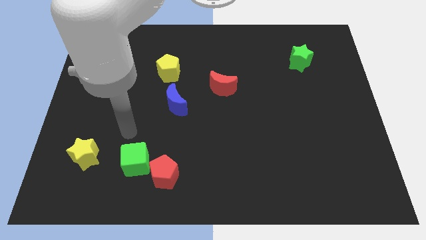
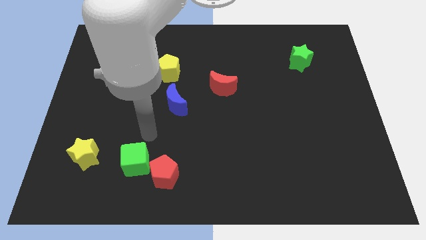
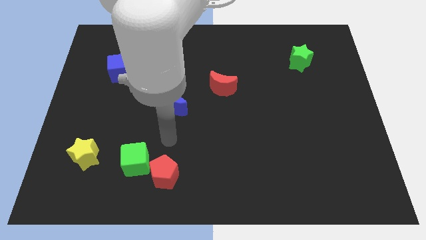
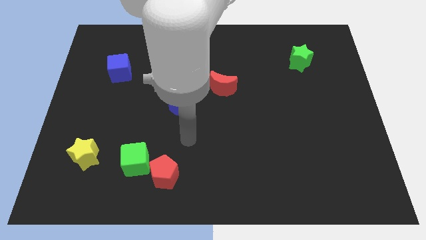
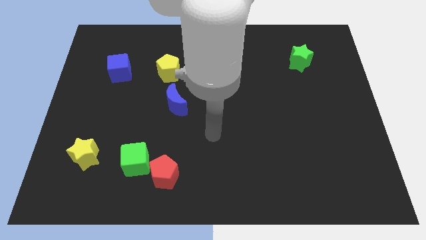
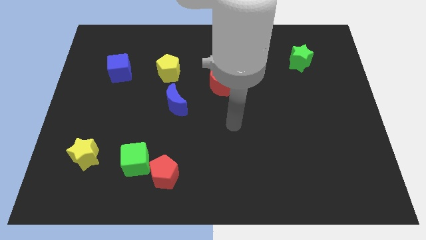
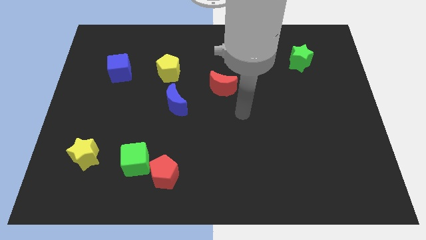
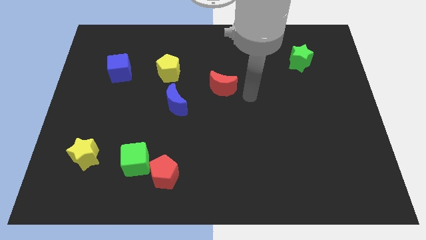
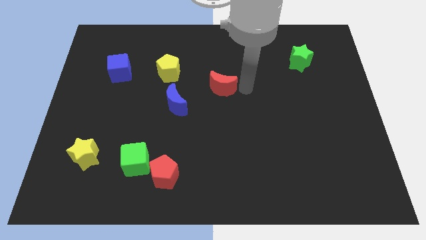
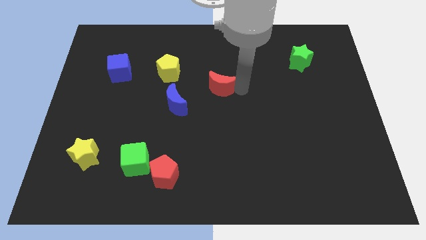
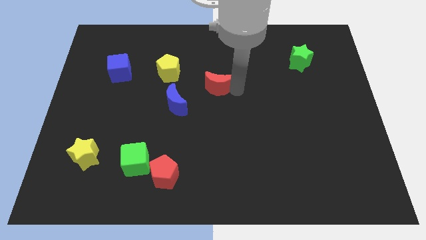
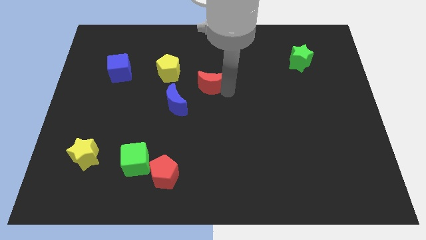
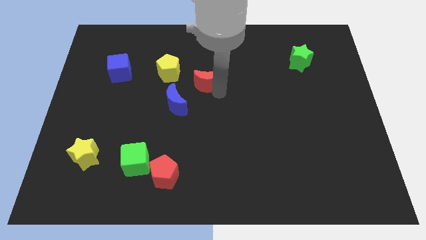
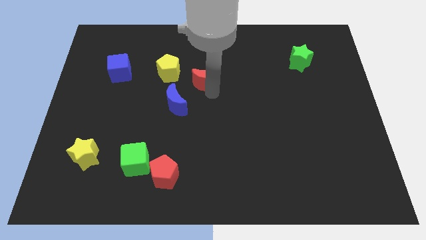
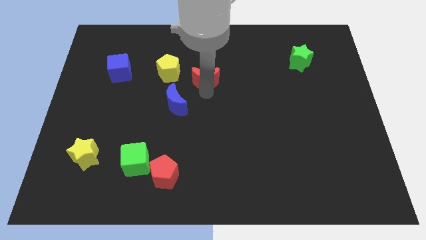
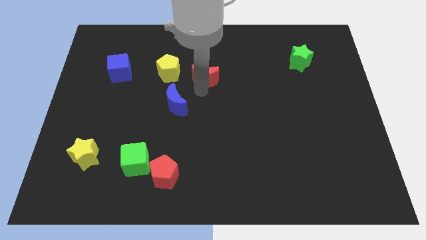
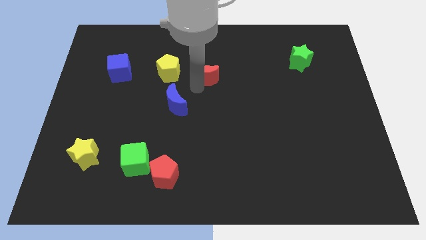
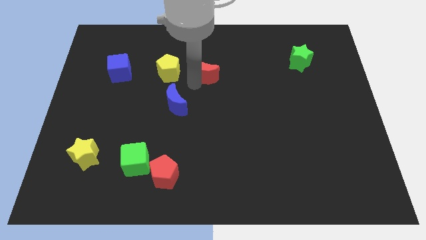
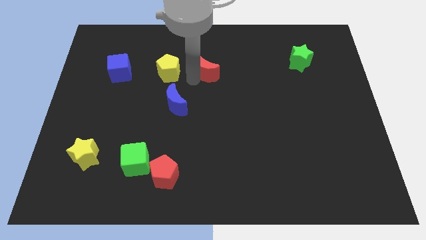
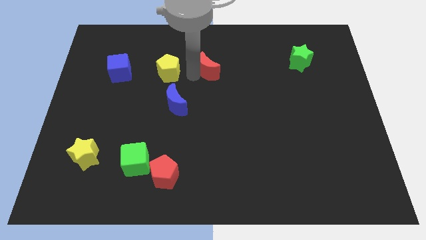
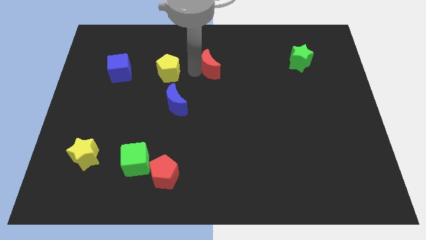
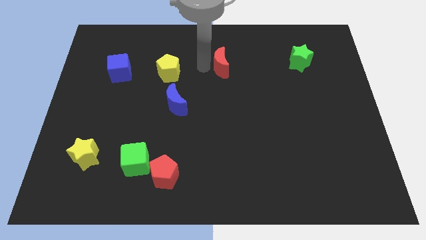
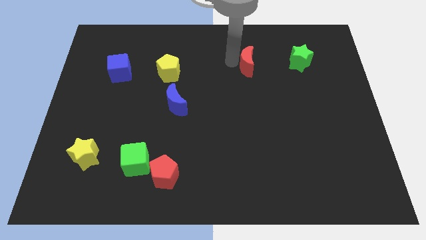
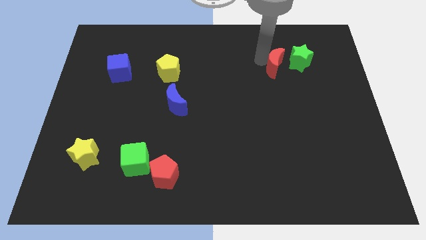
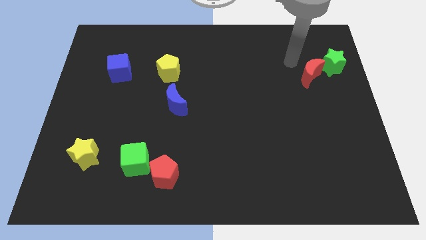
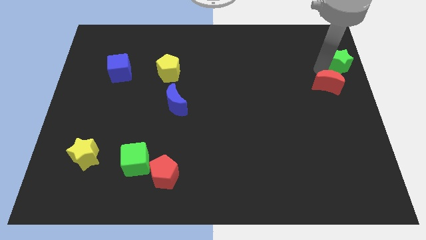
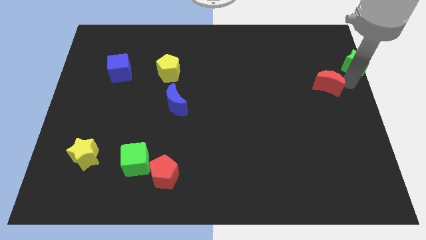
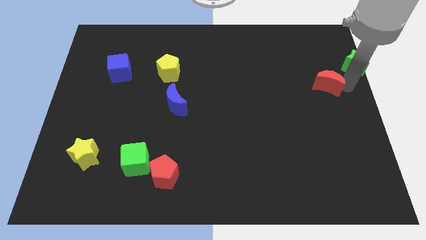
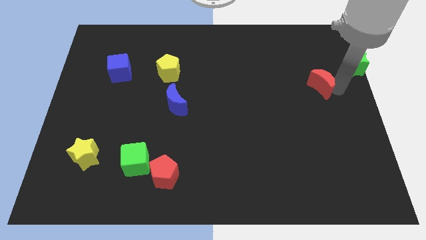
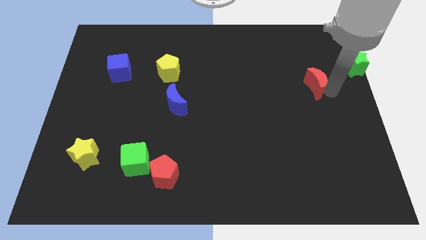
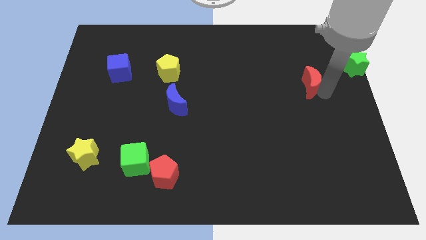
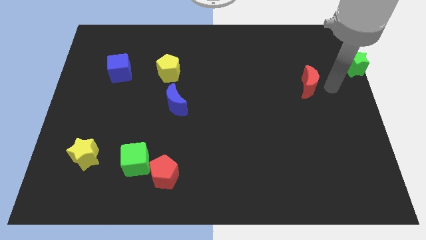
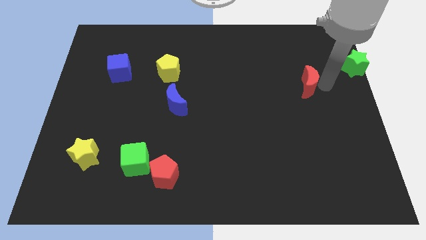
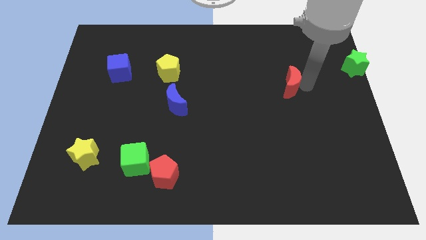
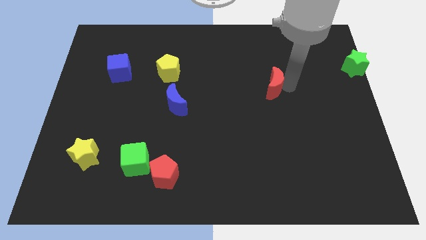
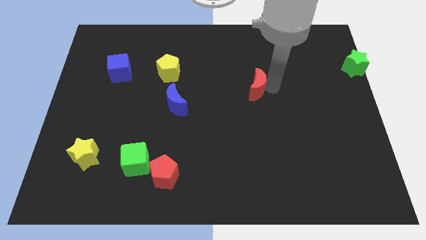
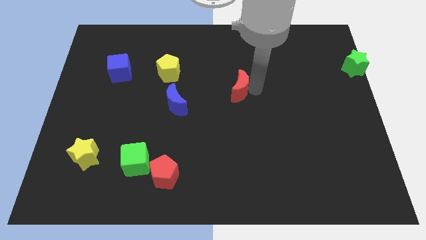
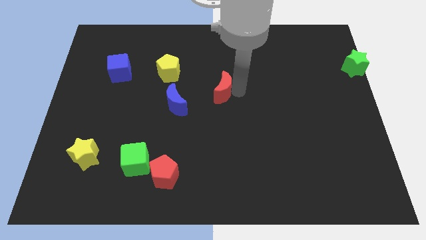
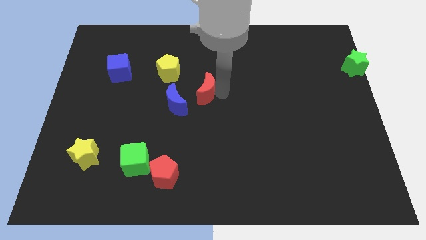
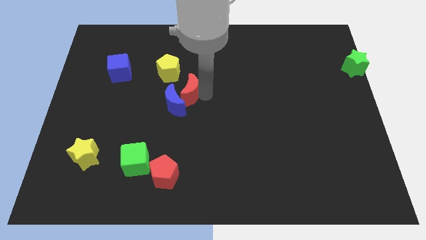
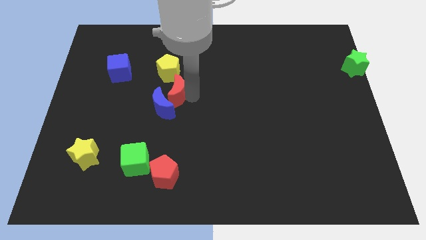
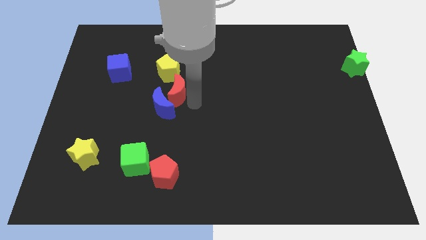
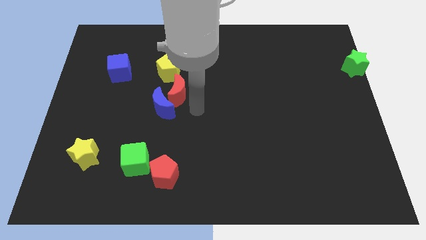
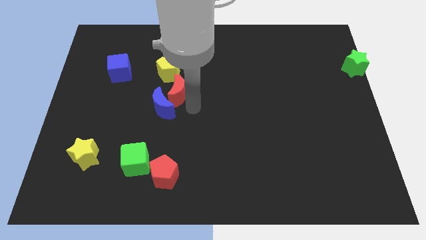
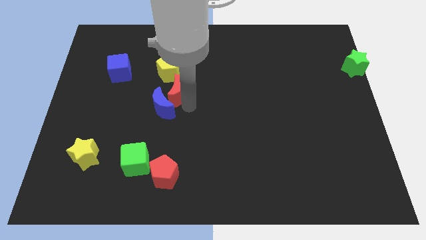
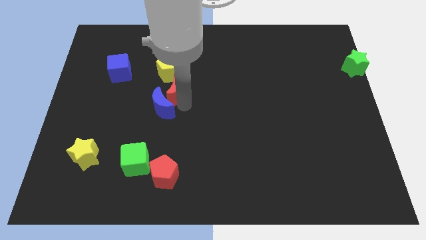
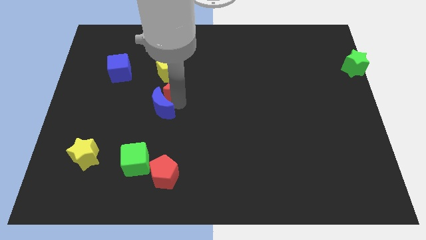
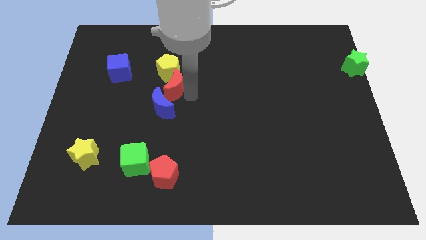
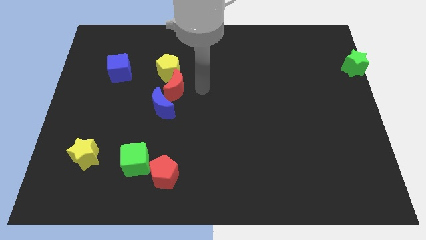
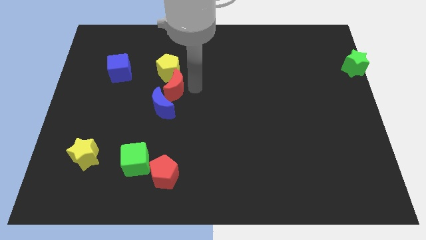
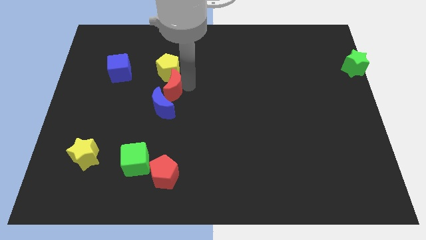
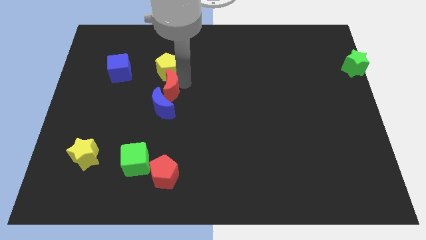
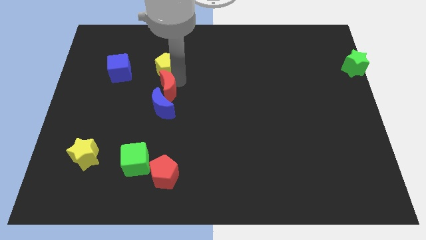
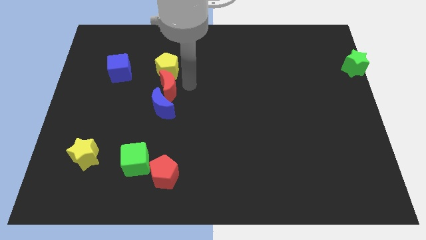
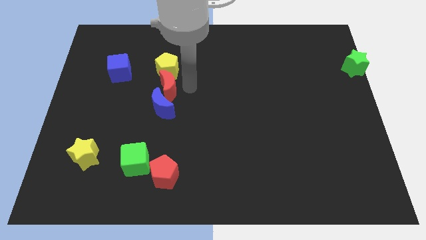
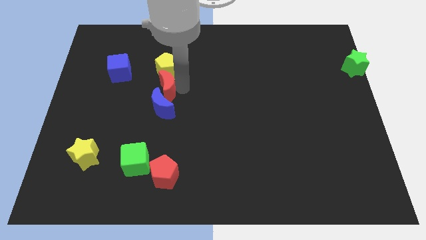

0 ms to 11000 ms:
move the red moon to the top left side of the blue moon

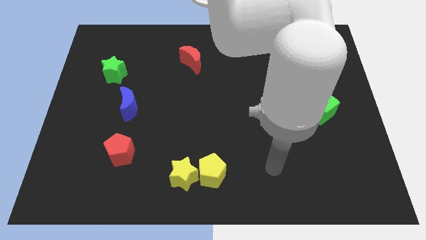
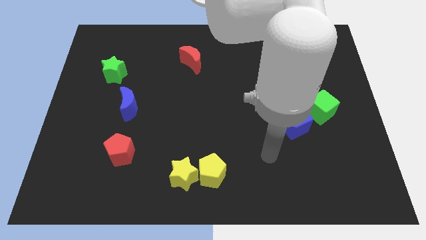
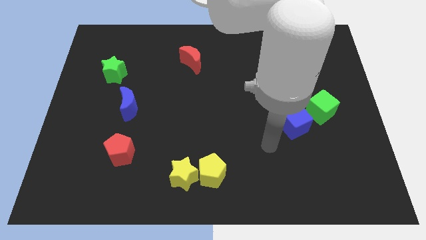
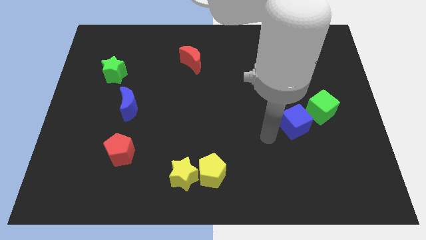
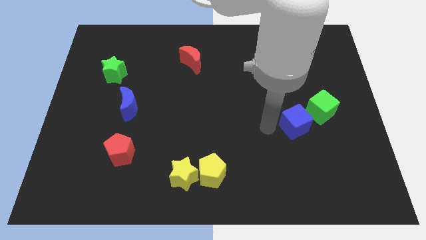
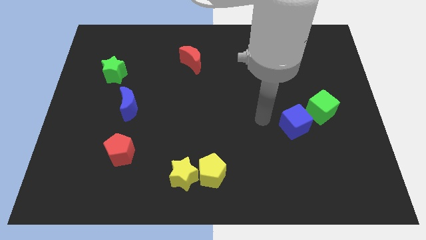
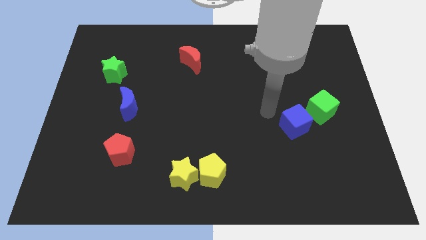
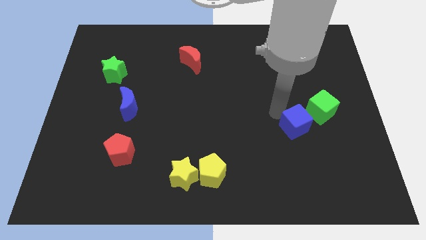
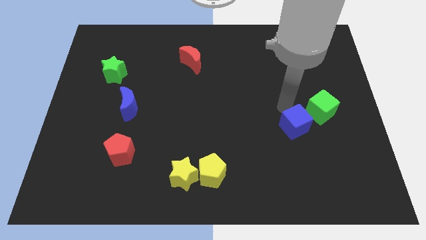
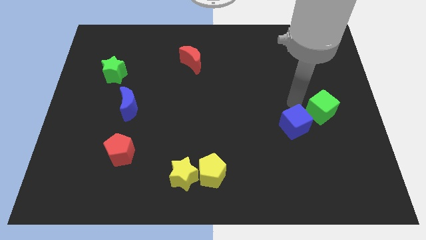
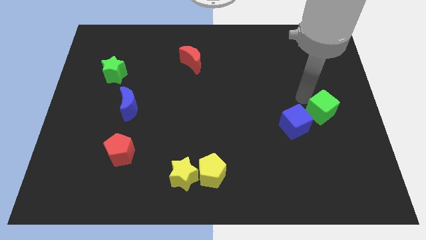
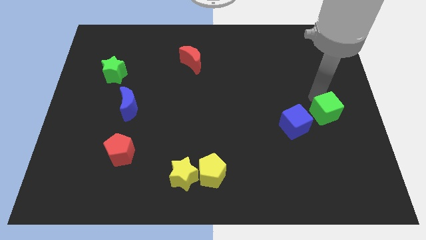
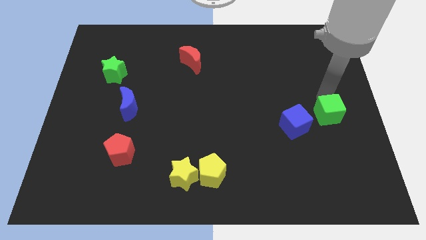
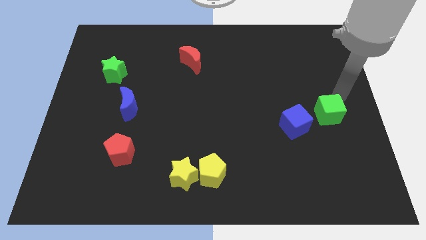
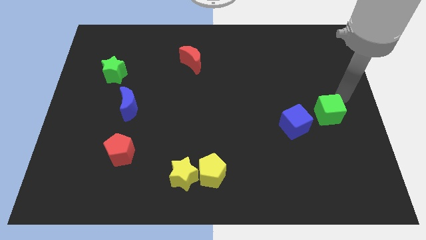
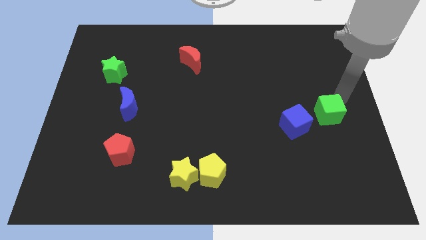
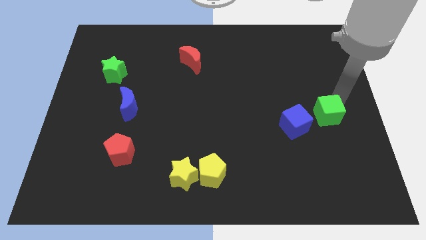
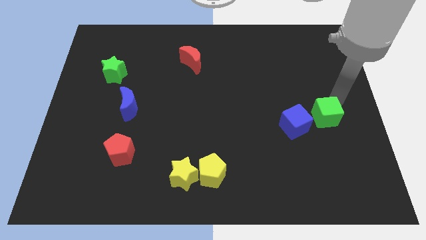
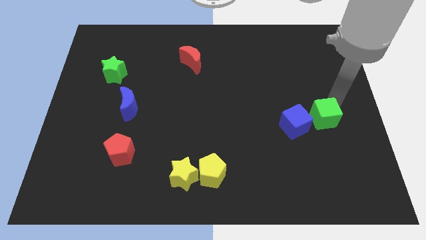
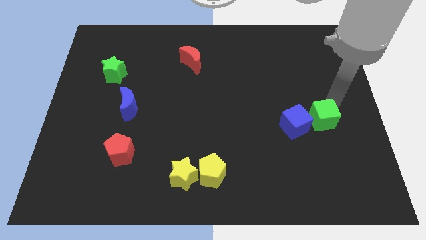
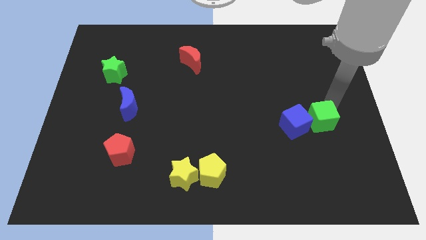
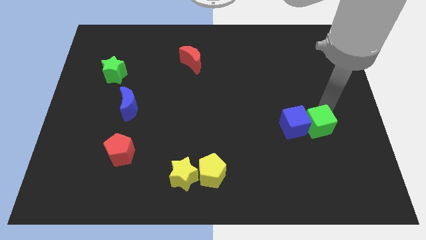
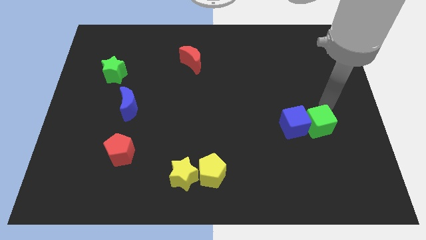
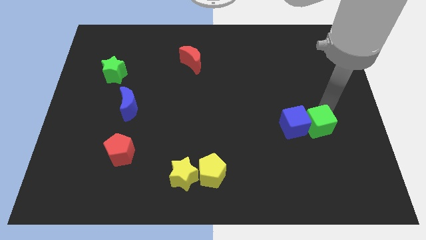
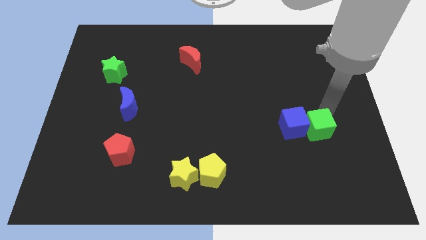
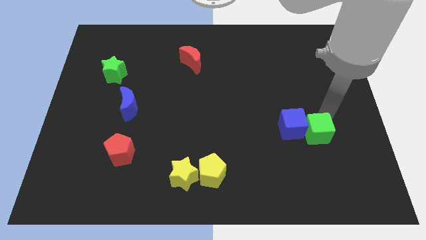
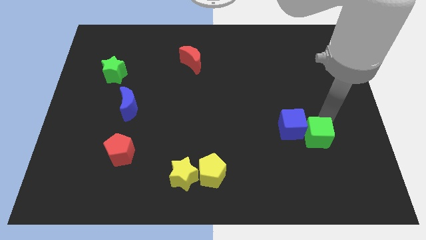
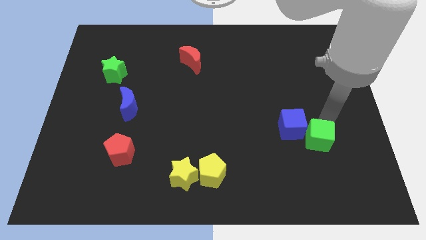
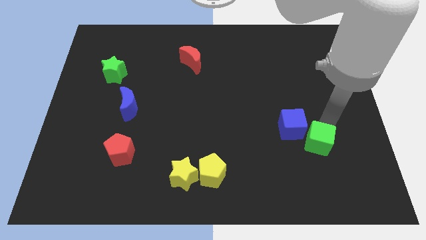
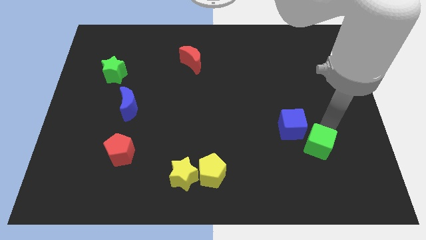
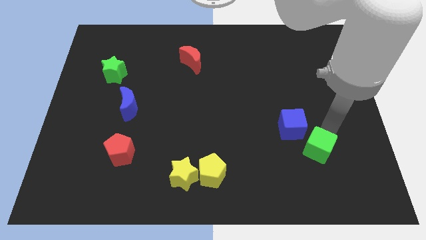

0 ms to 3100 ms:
move the green cube below the blue cube
